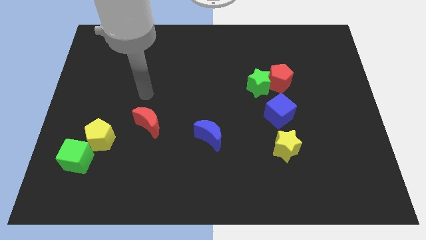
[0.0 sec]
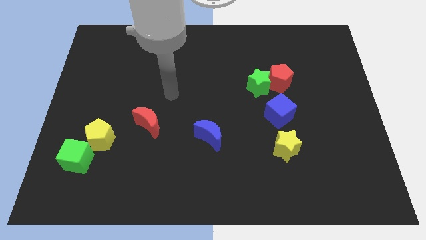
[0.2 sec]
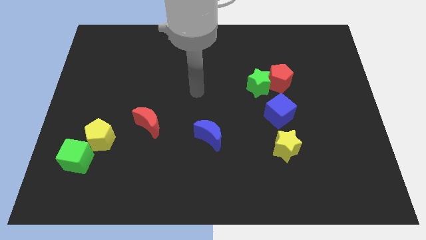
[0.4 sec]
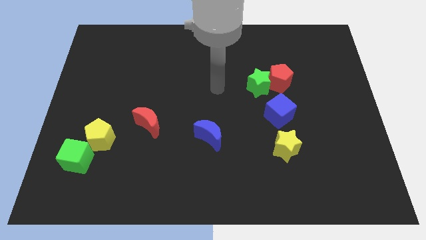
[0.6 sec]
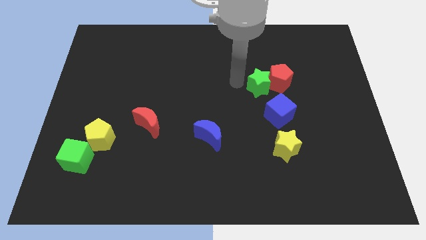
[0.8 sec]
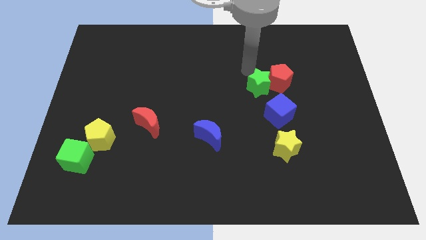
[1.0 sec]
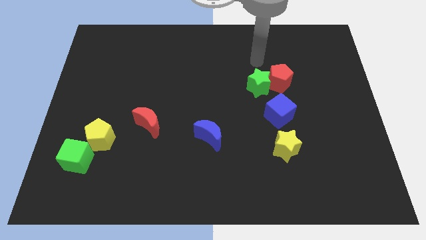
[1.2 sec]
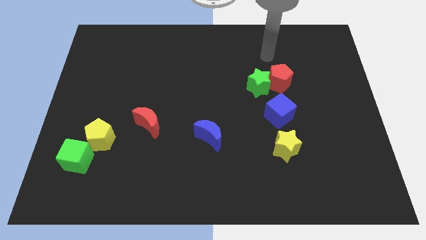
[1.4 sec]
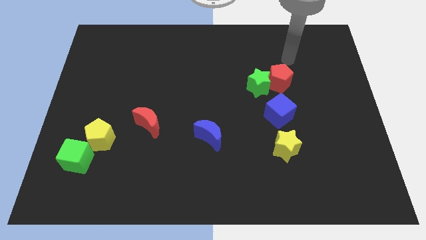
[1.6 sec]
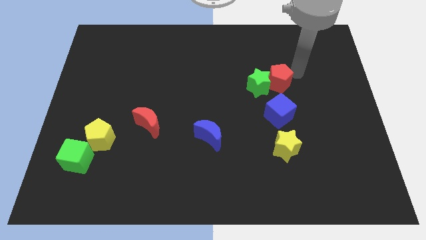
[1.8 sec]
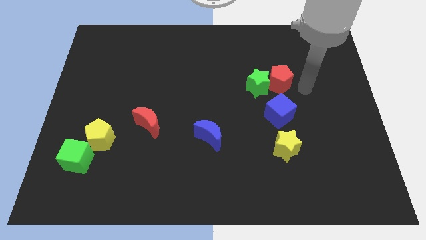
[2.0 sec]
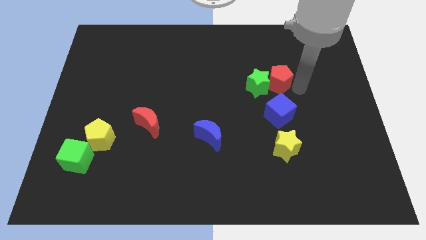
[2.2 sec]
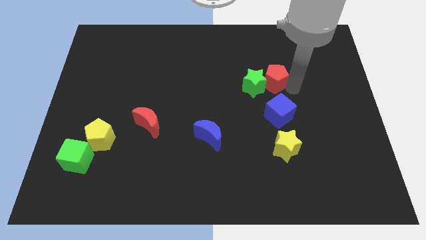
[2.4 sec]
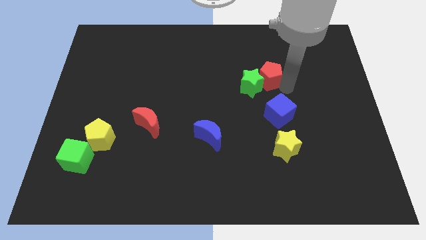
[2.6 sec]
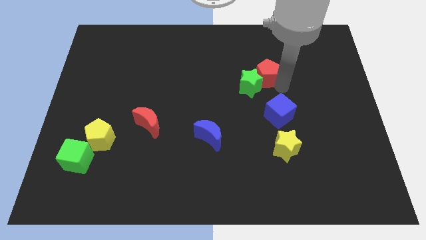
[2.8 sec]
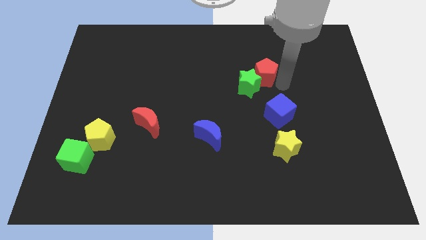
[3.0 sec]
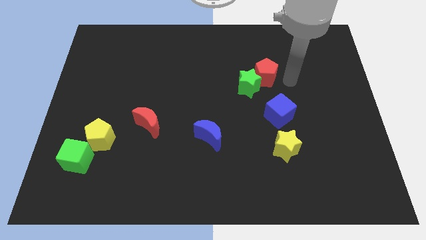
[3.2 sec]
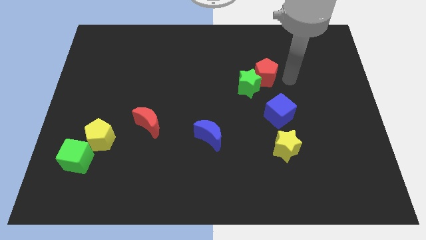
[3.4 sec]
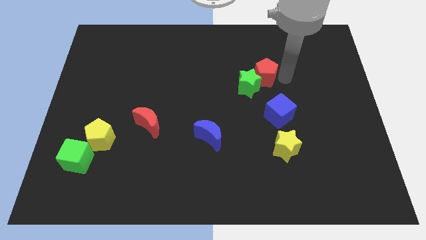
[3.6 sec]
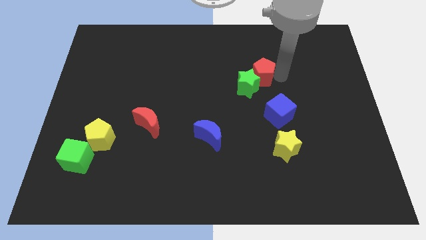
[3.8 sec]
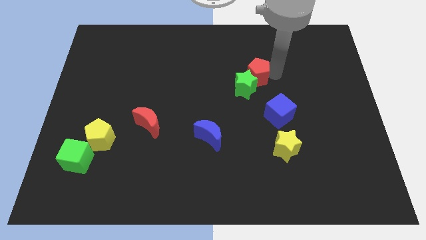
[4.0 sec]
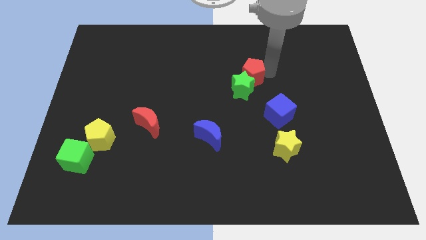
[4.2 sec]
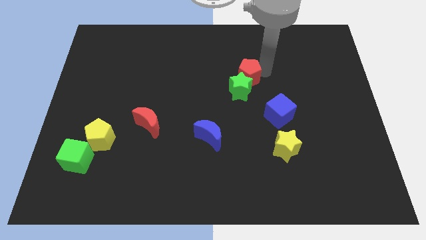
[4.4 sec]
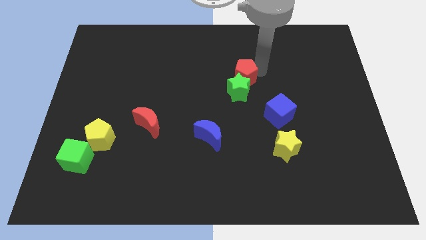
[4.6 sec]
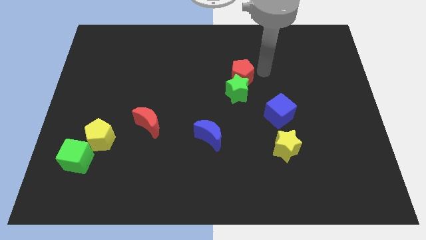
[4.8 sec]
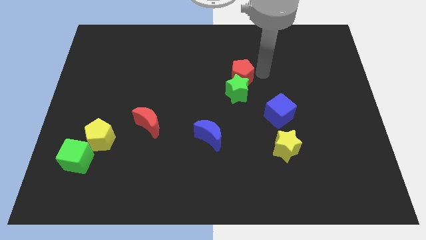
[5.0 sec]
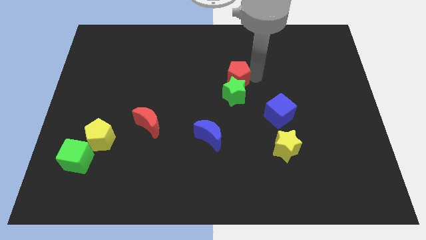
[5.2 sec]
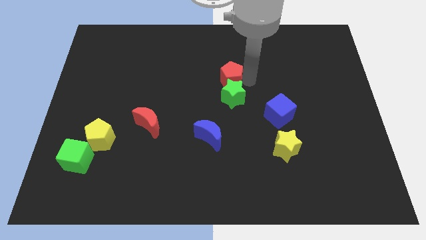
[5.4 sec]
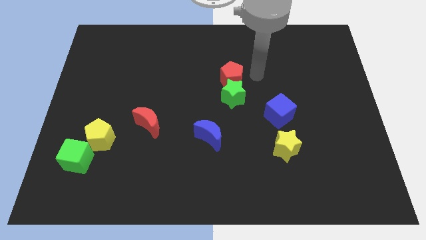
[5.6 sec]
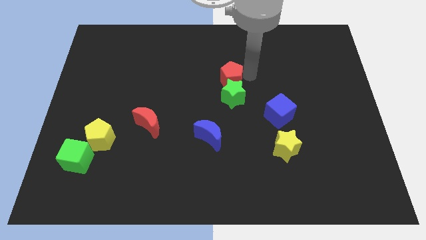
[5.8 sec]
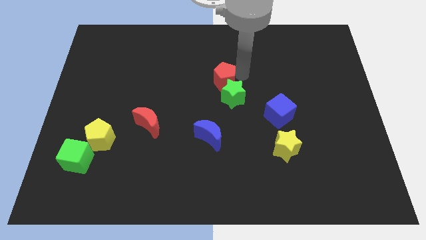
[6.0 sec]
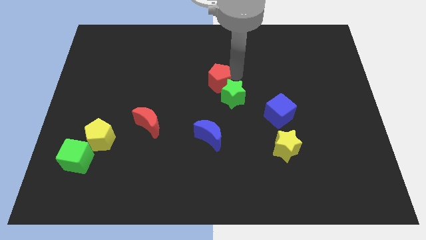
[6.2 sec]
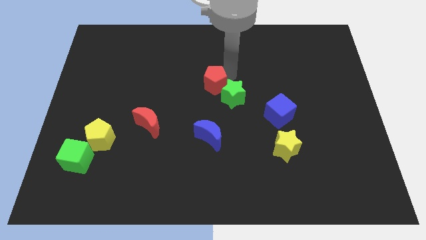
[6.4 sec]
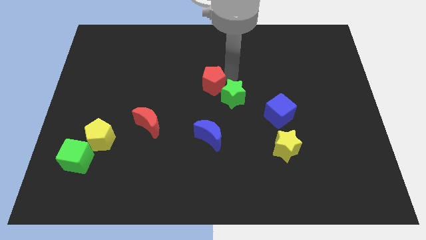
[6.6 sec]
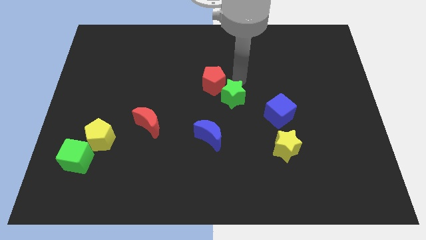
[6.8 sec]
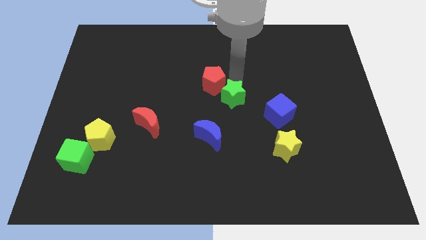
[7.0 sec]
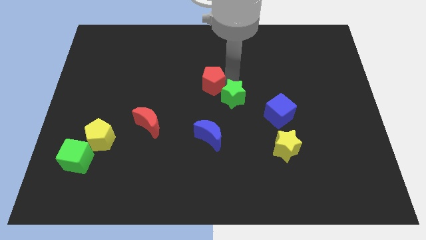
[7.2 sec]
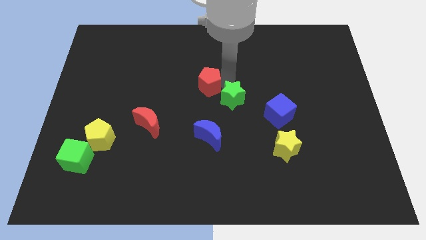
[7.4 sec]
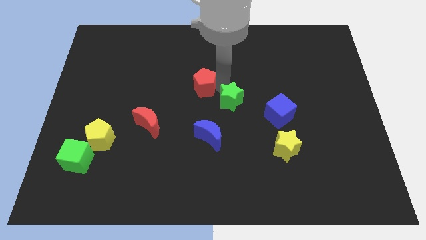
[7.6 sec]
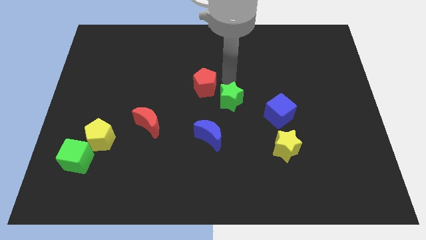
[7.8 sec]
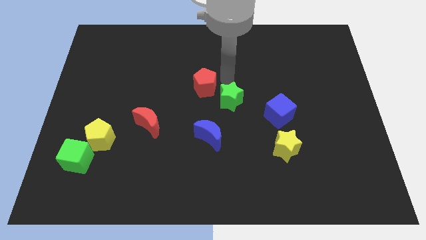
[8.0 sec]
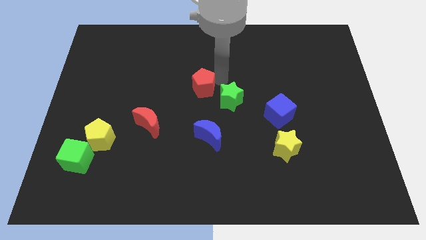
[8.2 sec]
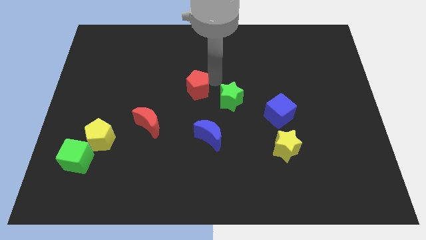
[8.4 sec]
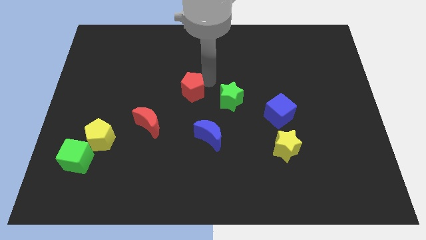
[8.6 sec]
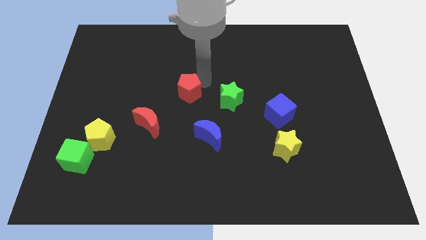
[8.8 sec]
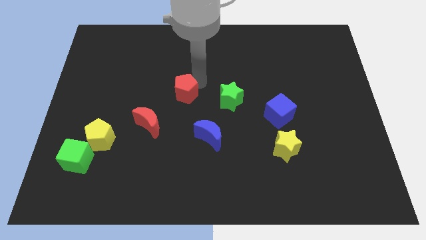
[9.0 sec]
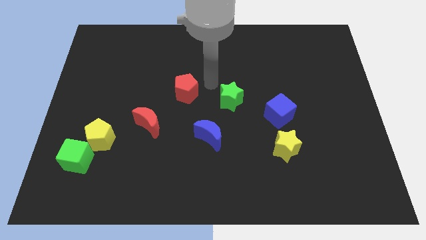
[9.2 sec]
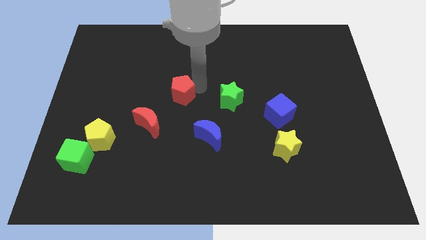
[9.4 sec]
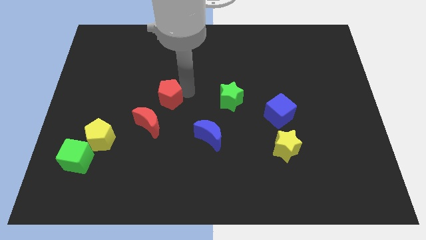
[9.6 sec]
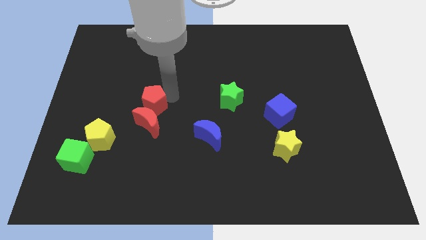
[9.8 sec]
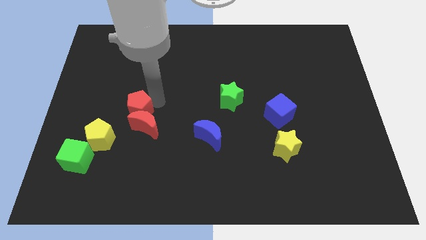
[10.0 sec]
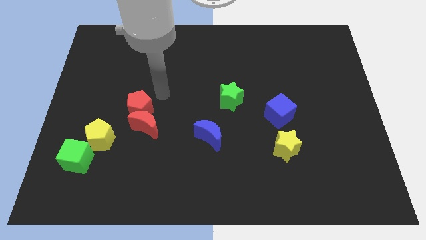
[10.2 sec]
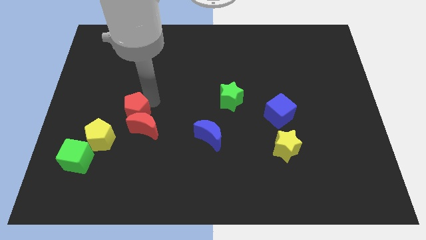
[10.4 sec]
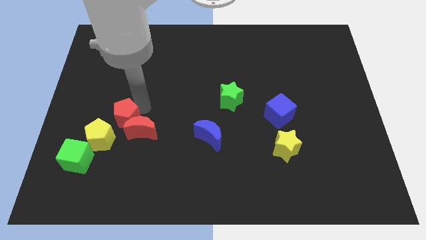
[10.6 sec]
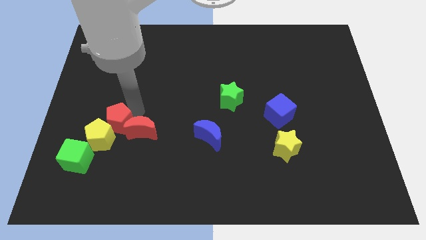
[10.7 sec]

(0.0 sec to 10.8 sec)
put the red pentagon close to the yellow pentagon

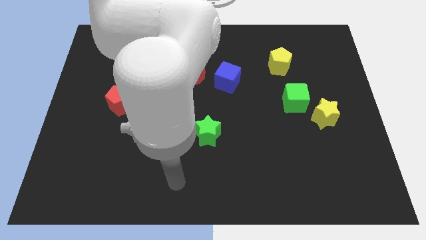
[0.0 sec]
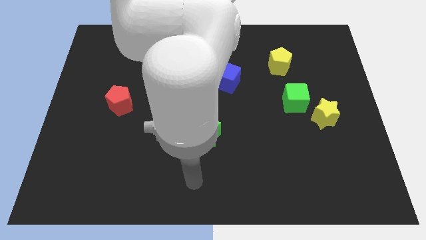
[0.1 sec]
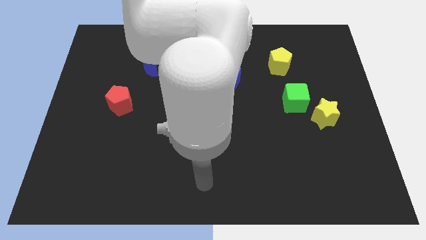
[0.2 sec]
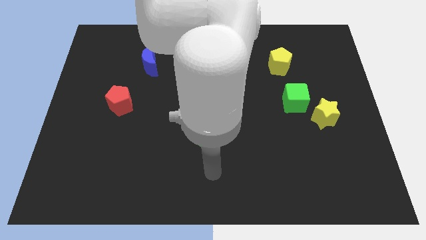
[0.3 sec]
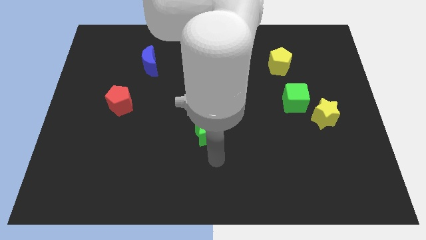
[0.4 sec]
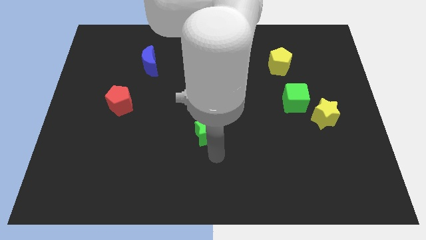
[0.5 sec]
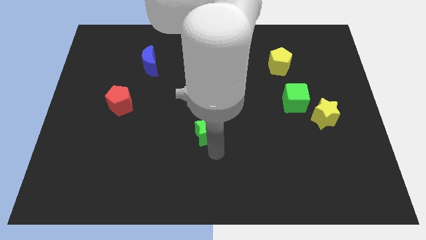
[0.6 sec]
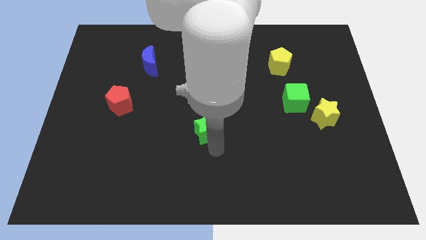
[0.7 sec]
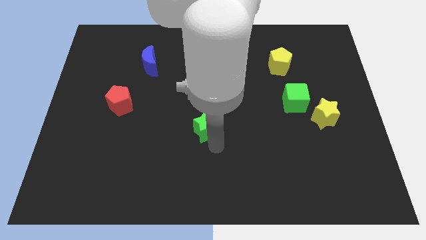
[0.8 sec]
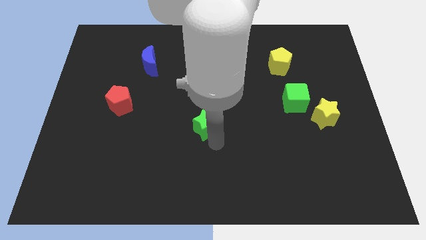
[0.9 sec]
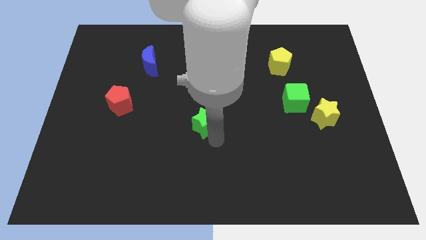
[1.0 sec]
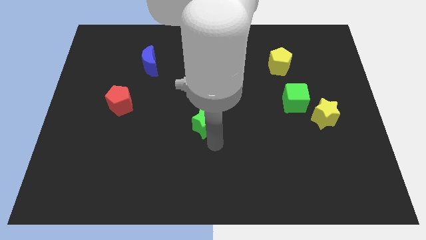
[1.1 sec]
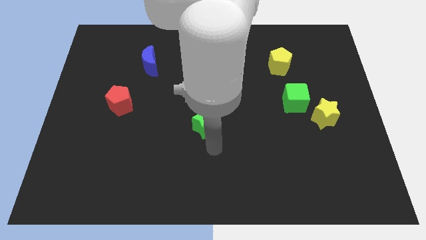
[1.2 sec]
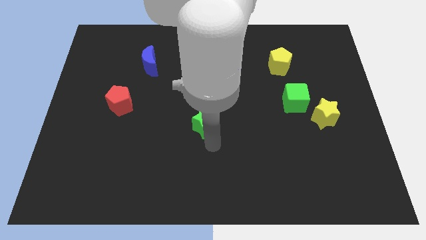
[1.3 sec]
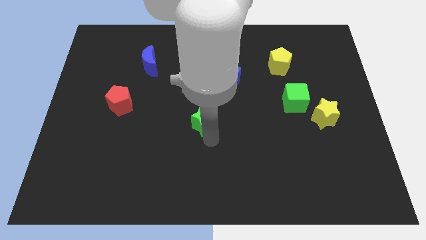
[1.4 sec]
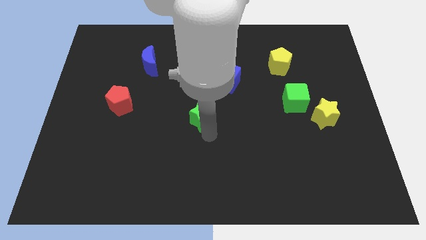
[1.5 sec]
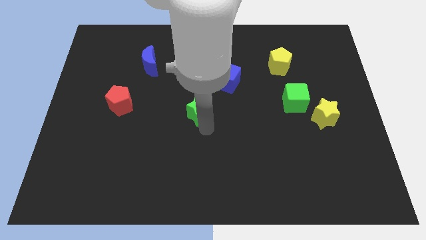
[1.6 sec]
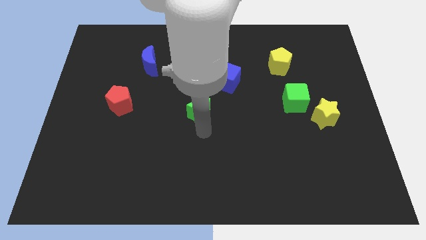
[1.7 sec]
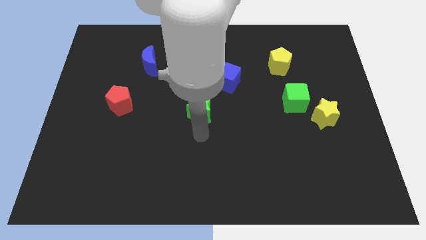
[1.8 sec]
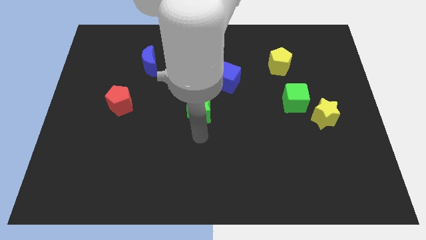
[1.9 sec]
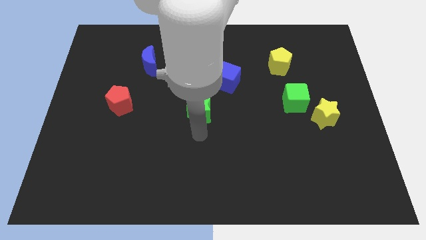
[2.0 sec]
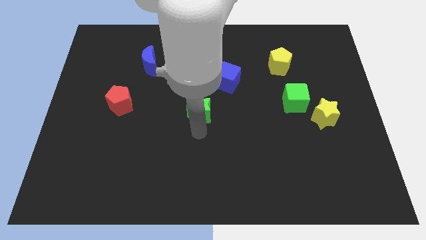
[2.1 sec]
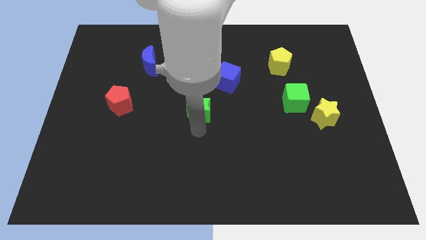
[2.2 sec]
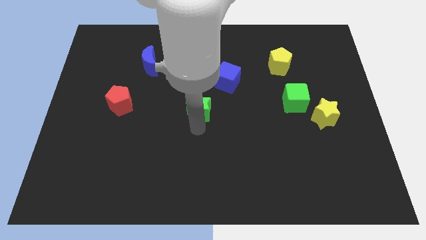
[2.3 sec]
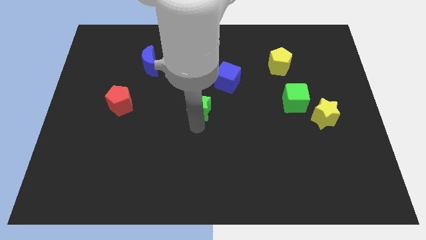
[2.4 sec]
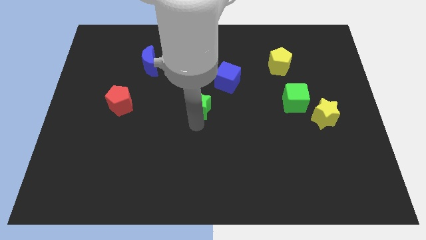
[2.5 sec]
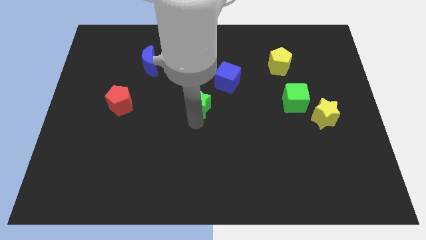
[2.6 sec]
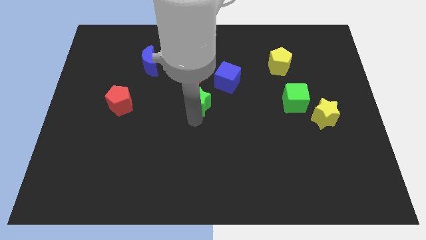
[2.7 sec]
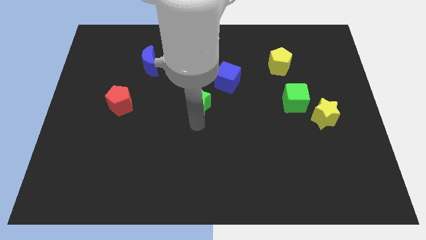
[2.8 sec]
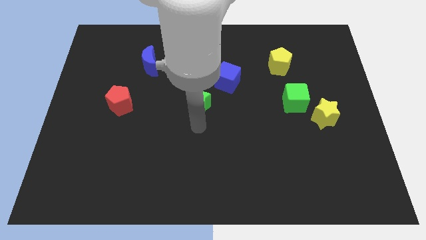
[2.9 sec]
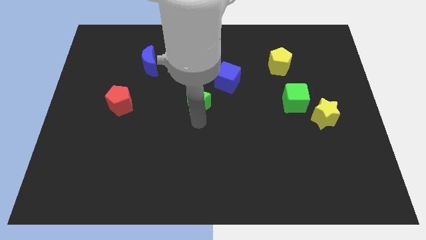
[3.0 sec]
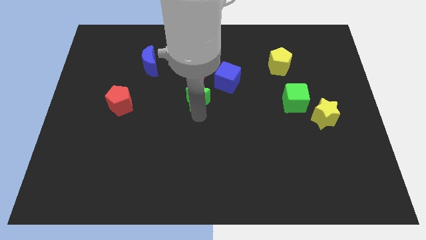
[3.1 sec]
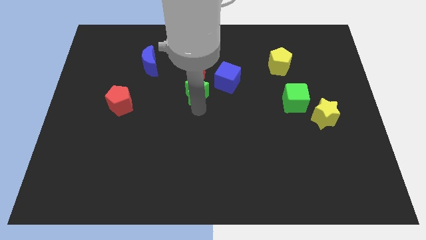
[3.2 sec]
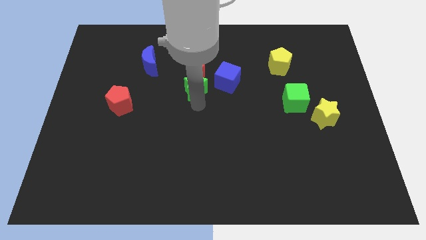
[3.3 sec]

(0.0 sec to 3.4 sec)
move the green star next to the red moon
